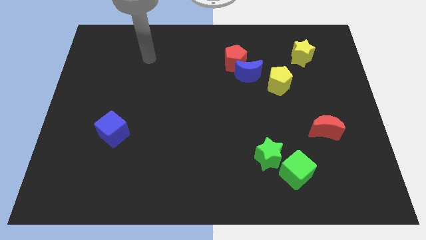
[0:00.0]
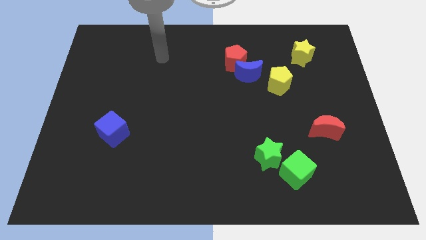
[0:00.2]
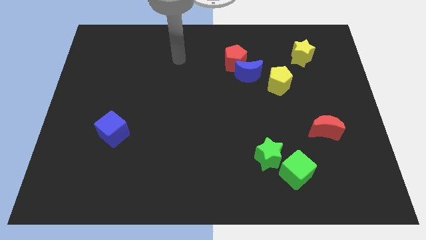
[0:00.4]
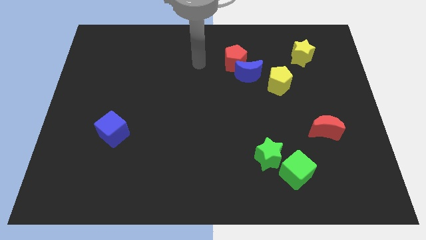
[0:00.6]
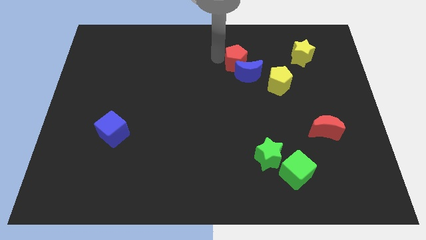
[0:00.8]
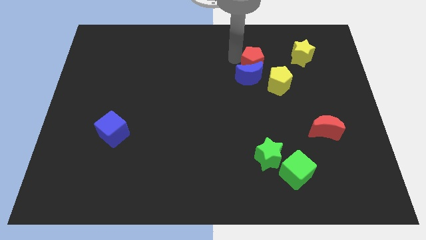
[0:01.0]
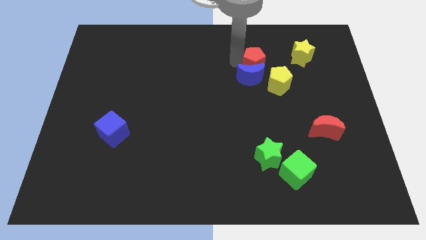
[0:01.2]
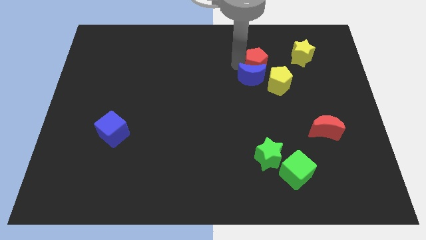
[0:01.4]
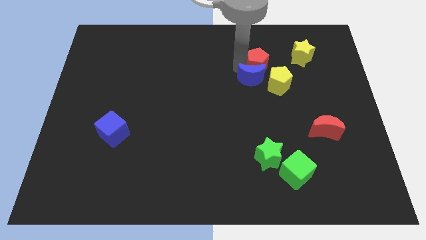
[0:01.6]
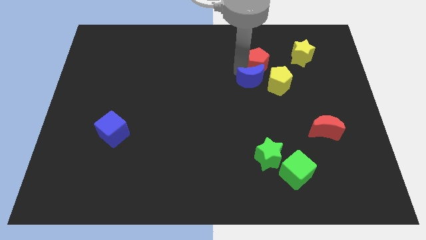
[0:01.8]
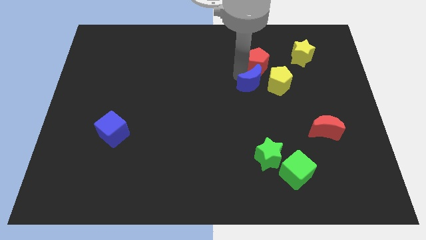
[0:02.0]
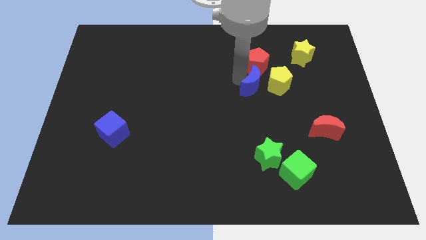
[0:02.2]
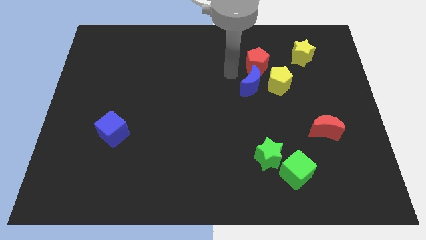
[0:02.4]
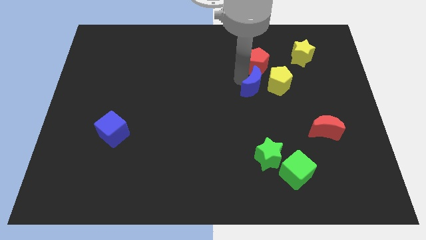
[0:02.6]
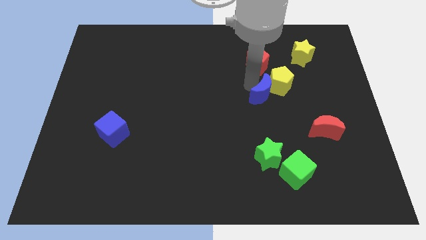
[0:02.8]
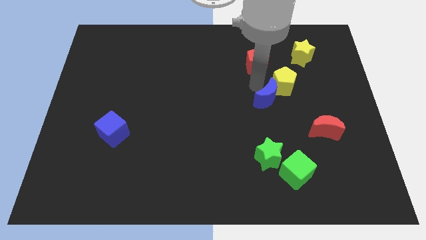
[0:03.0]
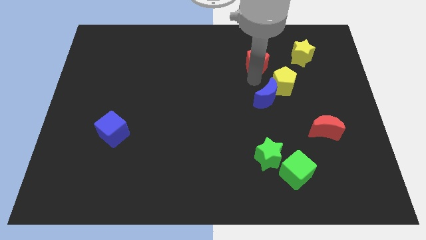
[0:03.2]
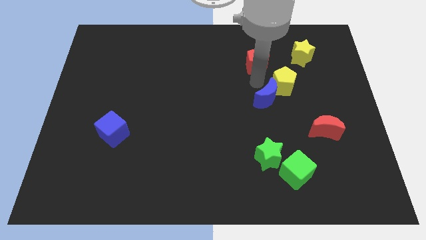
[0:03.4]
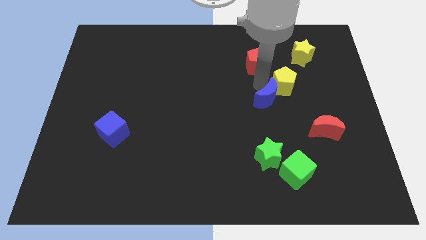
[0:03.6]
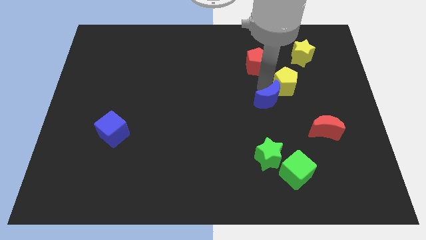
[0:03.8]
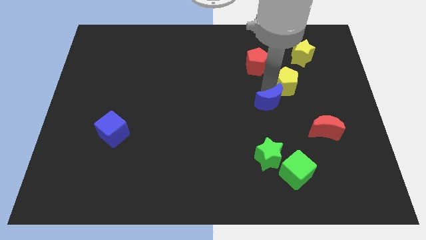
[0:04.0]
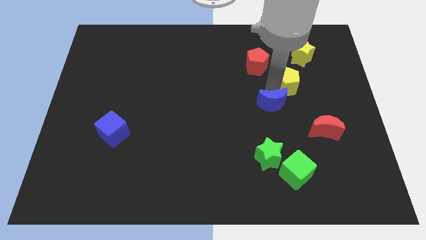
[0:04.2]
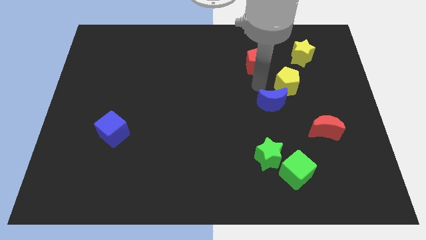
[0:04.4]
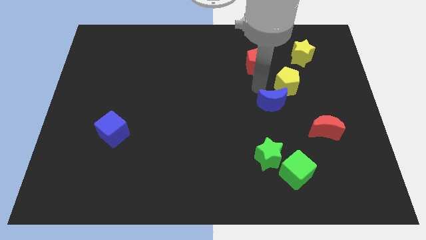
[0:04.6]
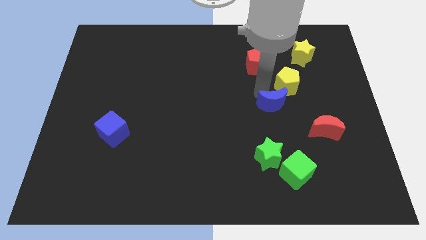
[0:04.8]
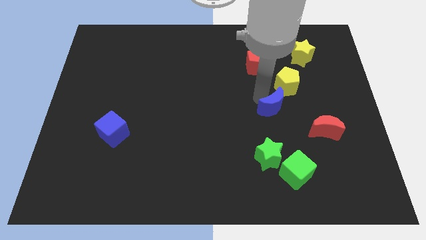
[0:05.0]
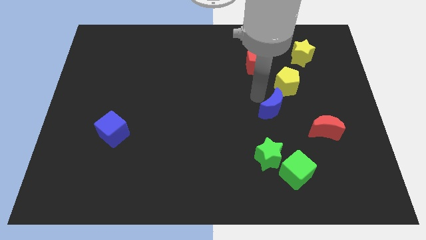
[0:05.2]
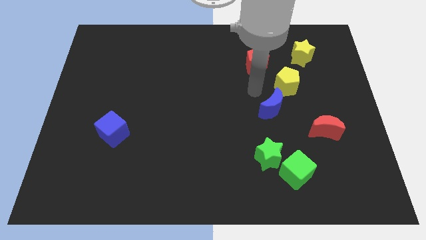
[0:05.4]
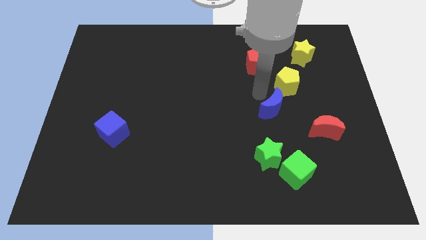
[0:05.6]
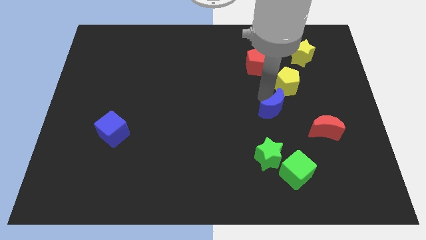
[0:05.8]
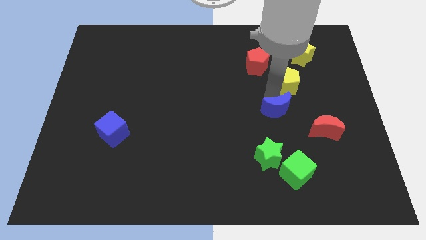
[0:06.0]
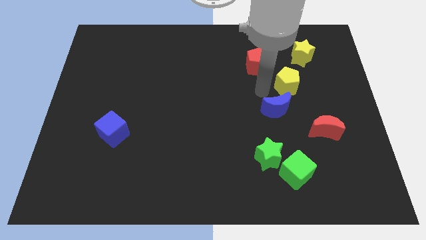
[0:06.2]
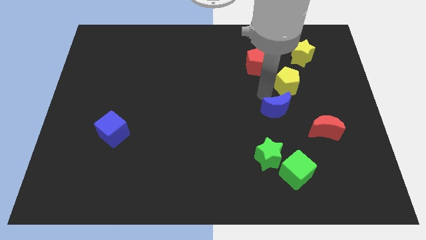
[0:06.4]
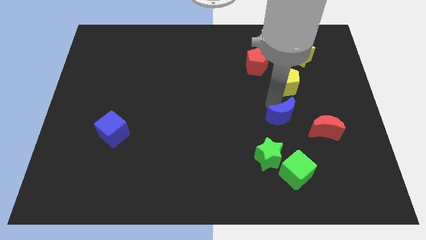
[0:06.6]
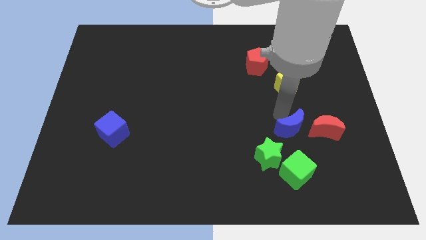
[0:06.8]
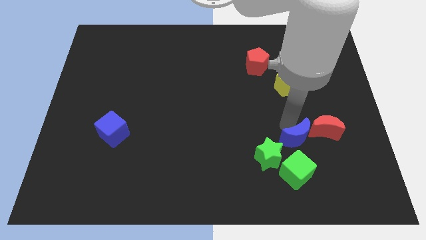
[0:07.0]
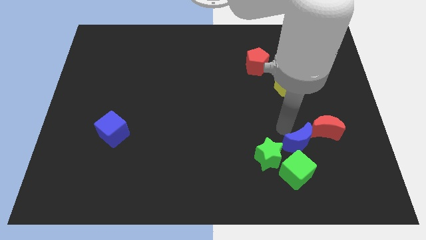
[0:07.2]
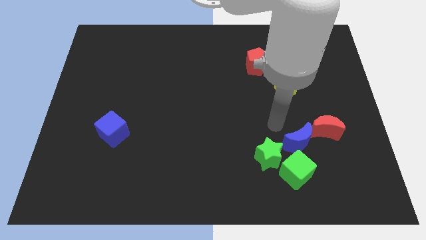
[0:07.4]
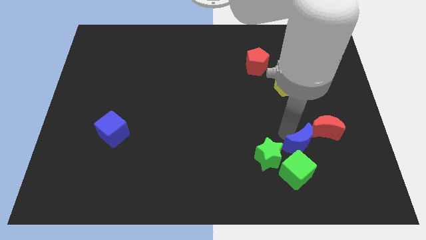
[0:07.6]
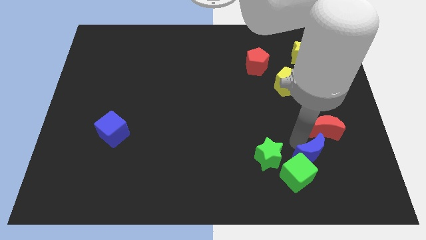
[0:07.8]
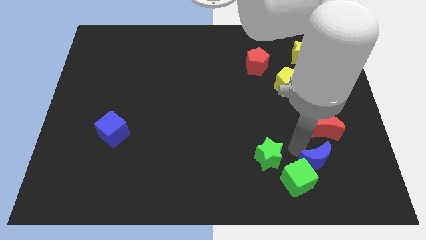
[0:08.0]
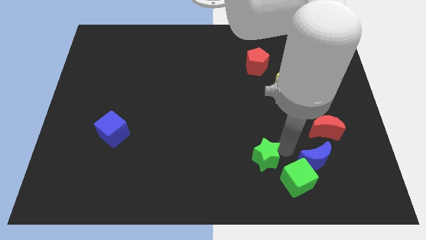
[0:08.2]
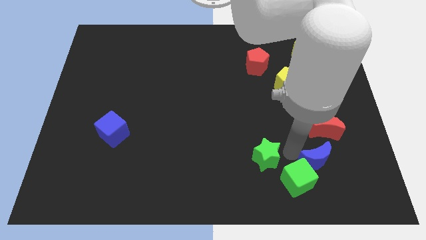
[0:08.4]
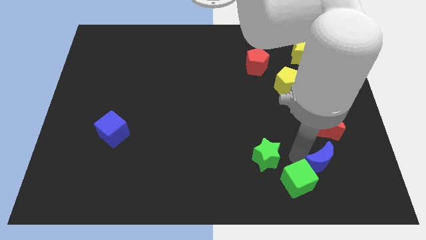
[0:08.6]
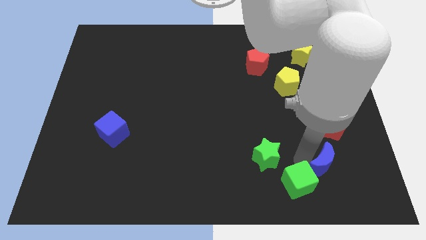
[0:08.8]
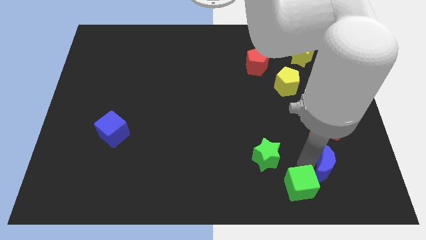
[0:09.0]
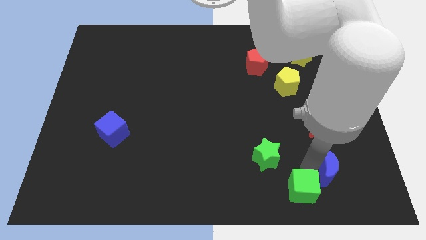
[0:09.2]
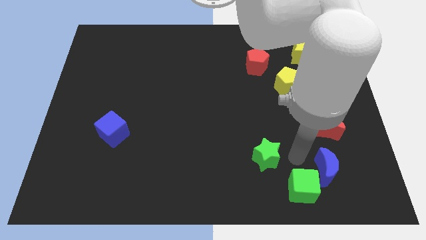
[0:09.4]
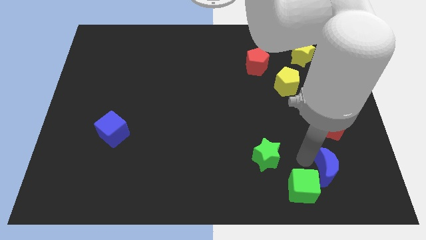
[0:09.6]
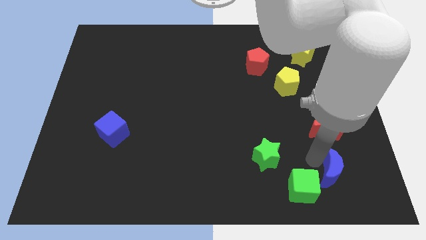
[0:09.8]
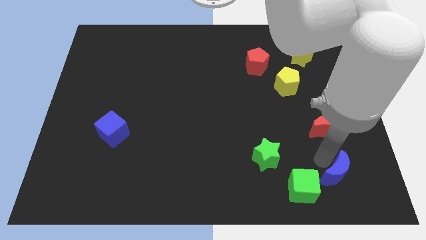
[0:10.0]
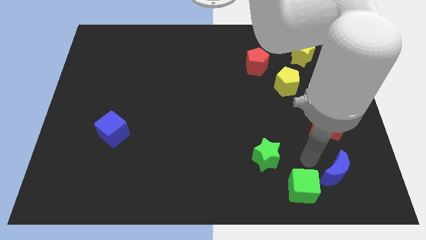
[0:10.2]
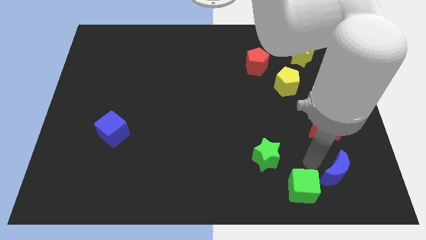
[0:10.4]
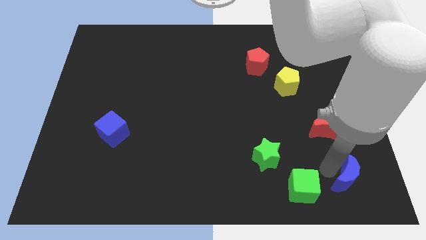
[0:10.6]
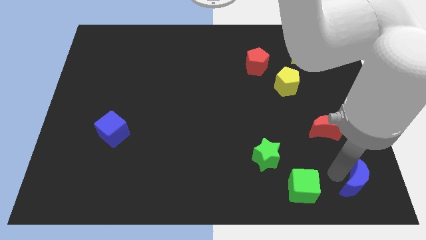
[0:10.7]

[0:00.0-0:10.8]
move the blue moon to the bottom right

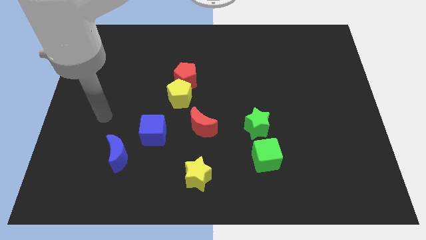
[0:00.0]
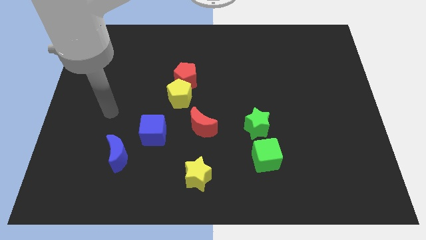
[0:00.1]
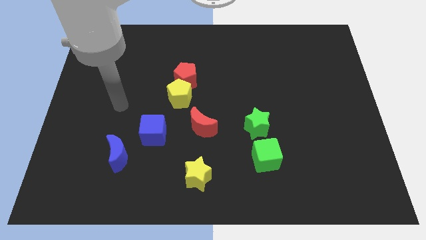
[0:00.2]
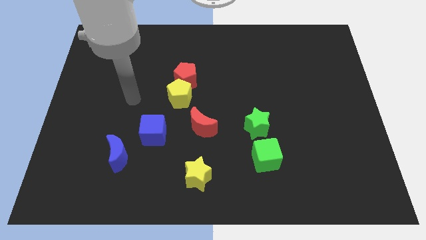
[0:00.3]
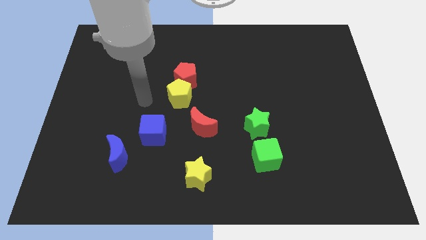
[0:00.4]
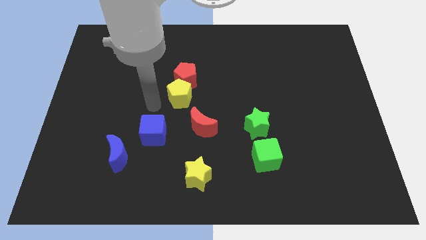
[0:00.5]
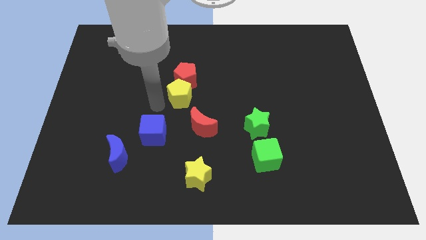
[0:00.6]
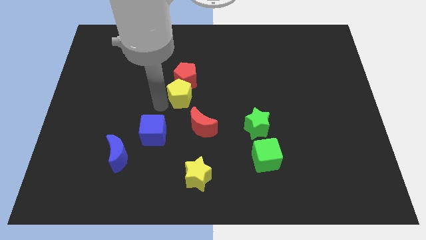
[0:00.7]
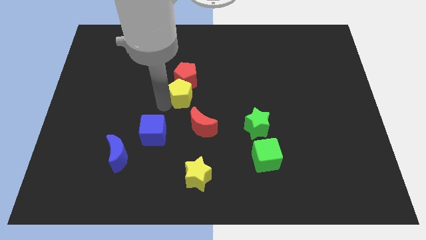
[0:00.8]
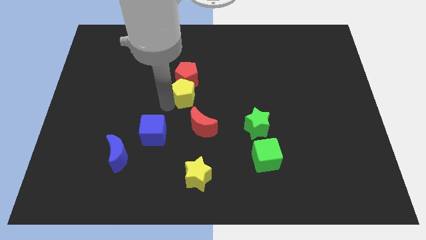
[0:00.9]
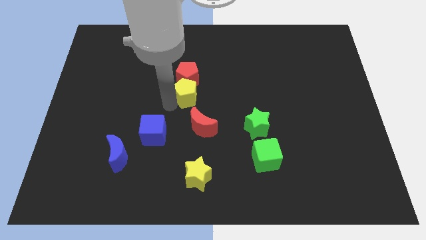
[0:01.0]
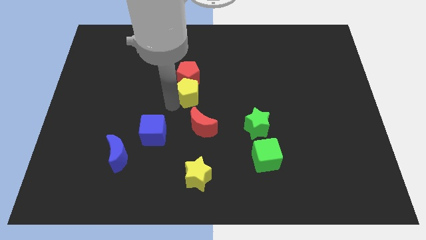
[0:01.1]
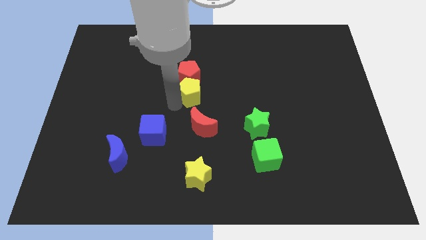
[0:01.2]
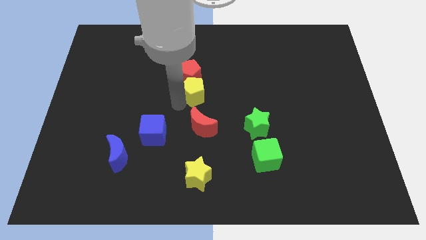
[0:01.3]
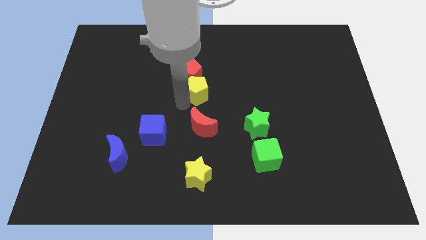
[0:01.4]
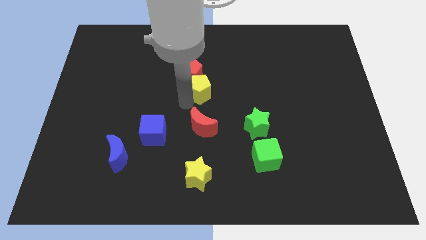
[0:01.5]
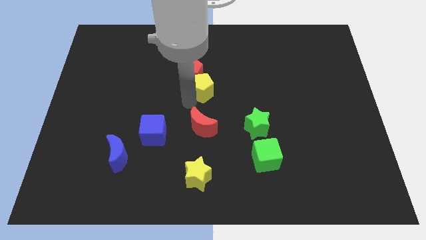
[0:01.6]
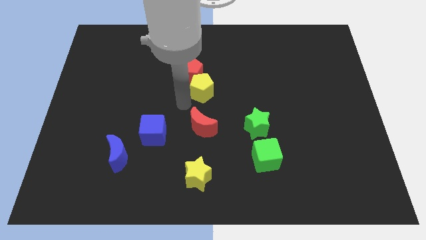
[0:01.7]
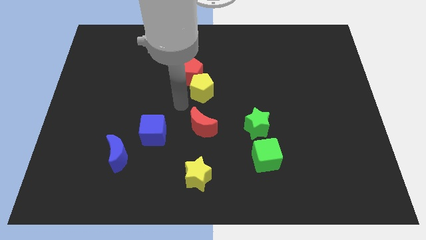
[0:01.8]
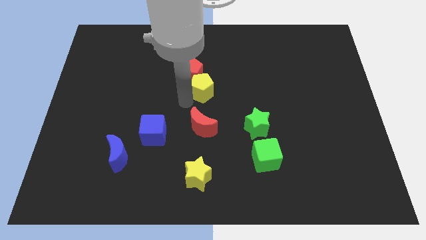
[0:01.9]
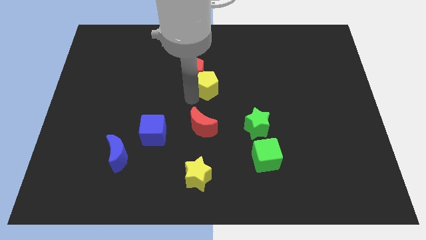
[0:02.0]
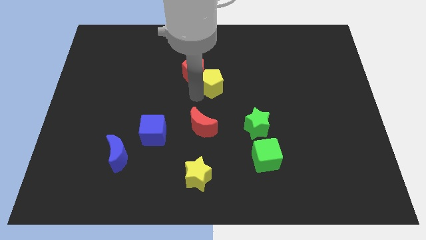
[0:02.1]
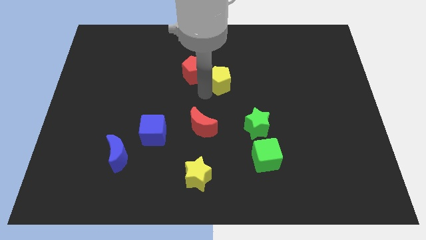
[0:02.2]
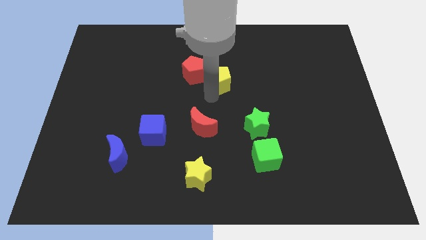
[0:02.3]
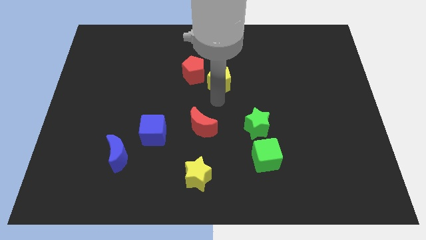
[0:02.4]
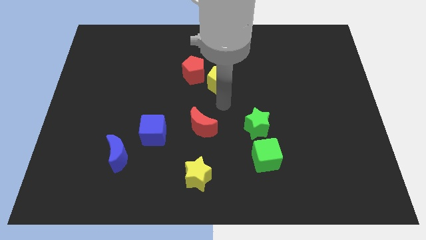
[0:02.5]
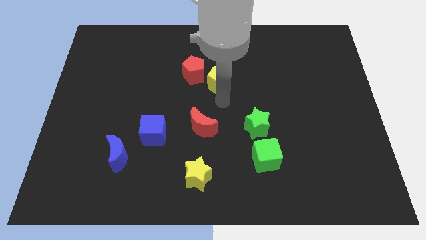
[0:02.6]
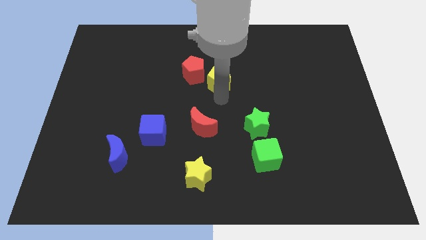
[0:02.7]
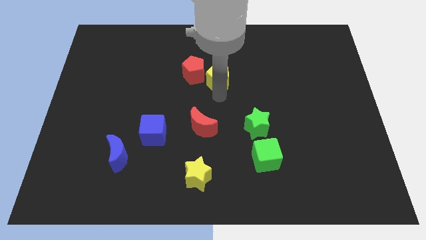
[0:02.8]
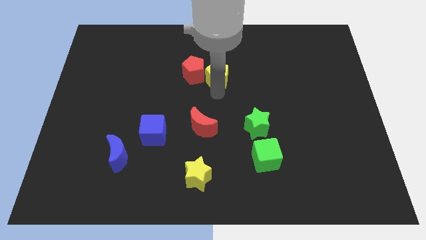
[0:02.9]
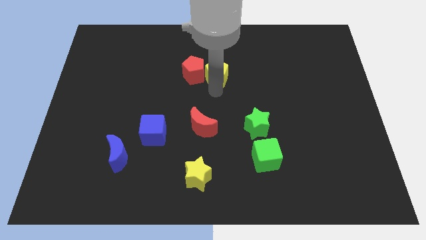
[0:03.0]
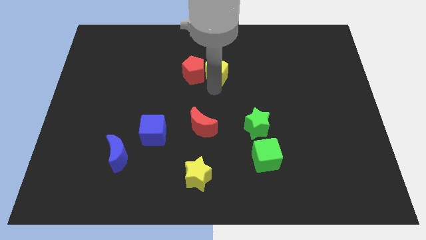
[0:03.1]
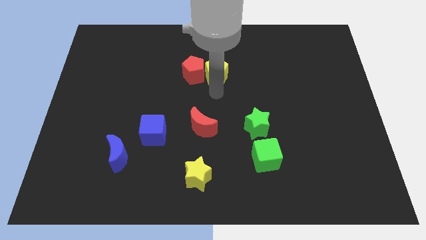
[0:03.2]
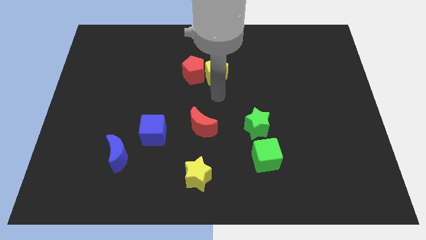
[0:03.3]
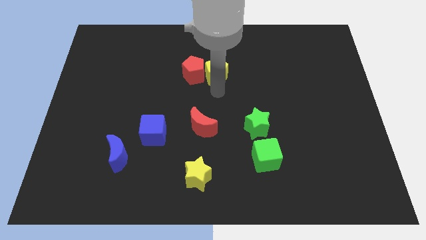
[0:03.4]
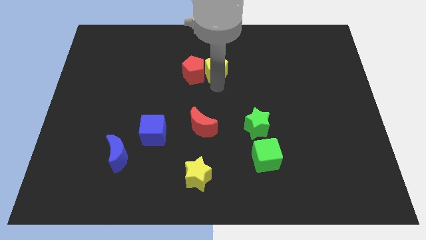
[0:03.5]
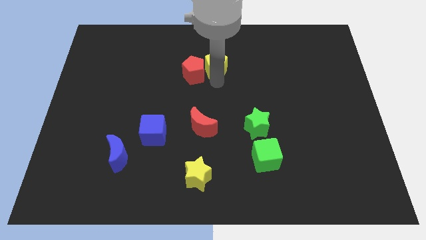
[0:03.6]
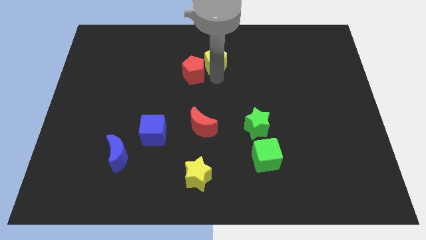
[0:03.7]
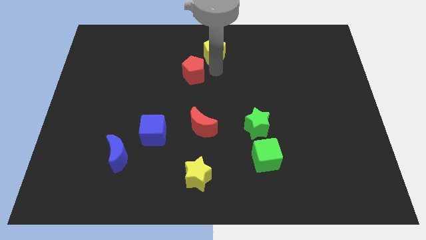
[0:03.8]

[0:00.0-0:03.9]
put the yellow pentagon to the top side
